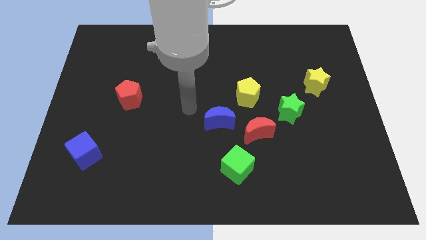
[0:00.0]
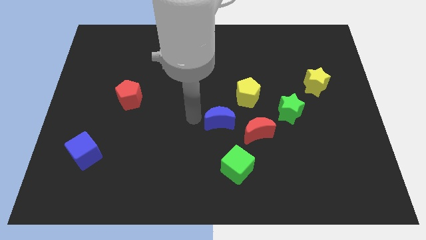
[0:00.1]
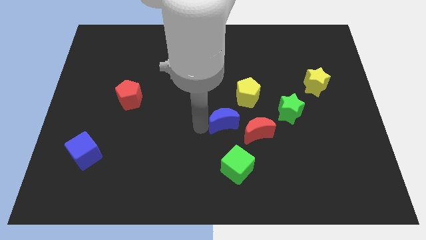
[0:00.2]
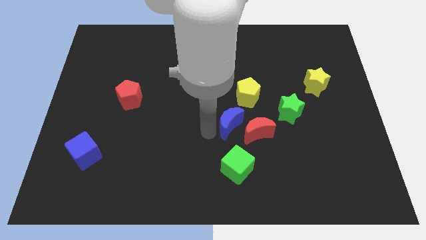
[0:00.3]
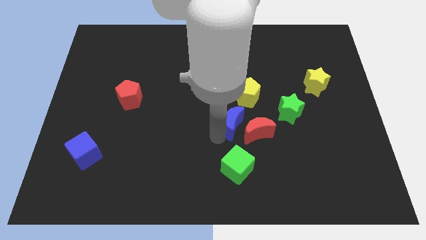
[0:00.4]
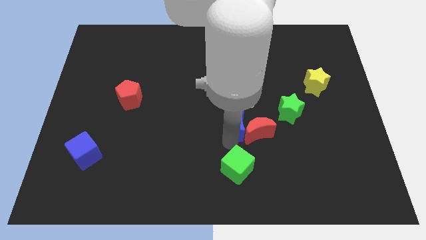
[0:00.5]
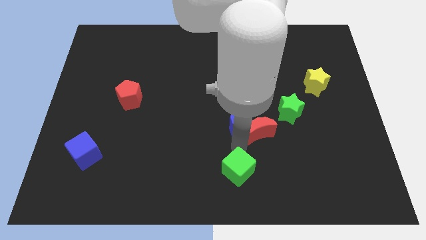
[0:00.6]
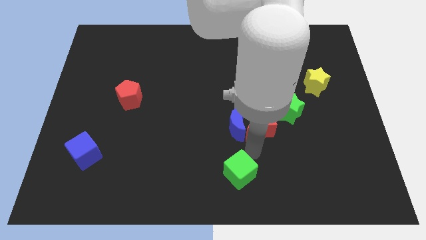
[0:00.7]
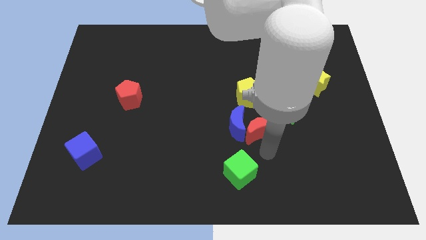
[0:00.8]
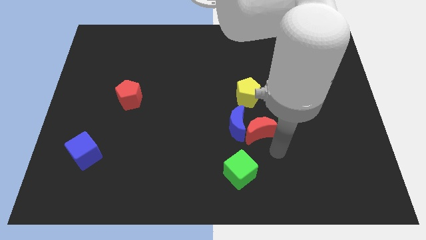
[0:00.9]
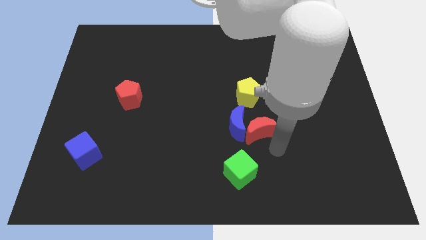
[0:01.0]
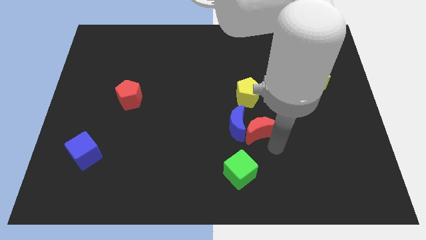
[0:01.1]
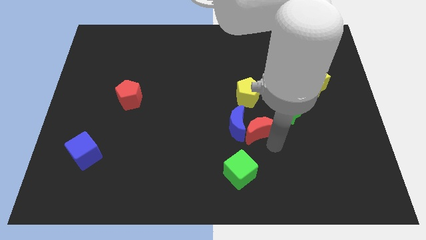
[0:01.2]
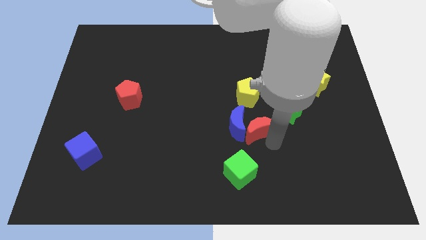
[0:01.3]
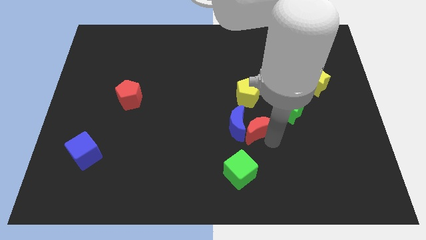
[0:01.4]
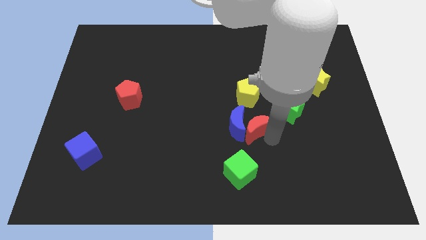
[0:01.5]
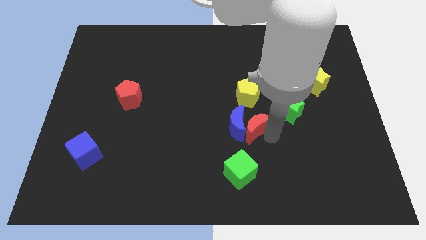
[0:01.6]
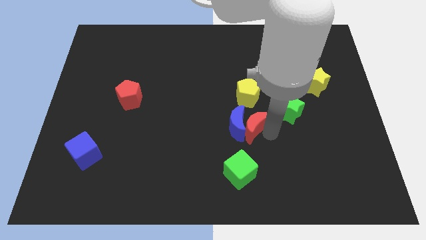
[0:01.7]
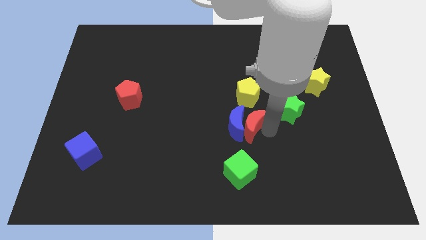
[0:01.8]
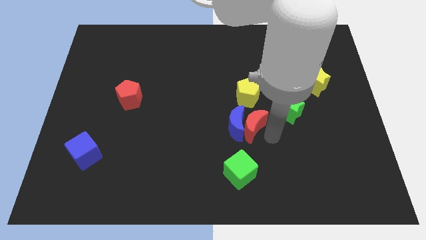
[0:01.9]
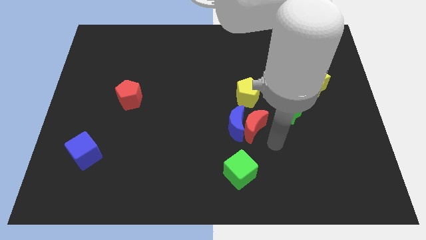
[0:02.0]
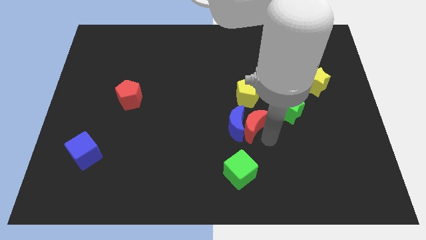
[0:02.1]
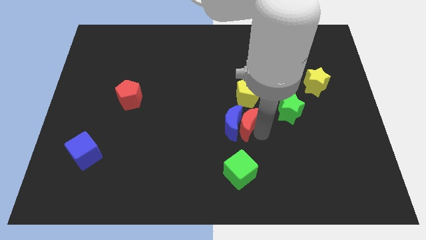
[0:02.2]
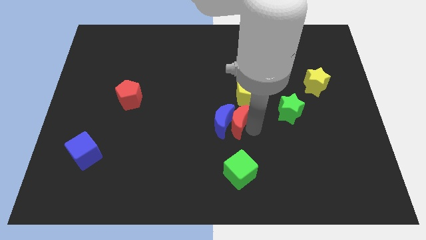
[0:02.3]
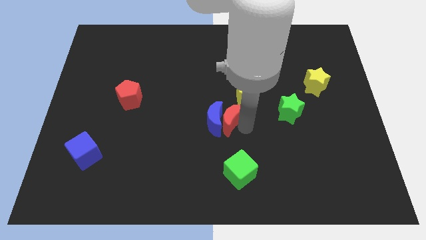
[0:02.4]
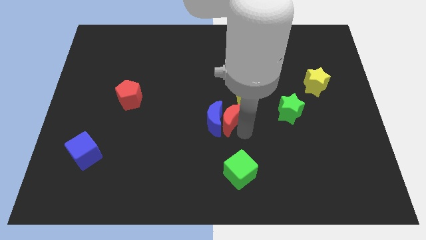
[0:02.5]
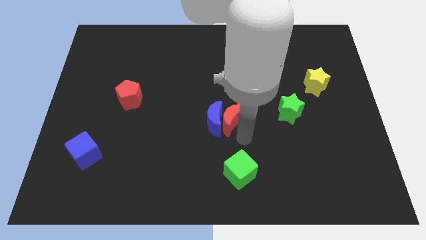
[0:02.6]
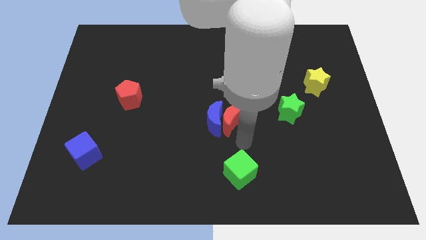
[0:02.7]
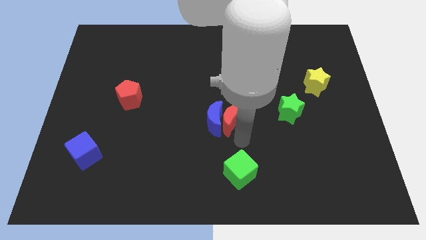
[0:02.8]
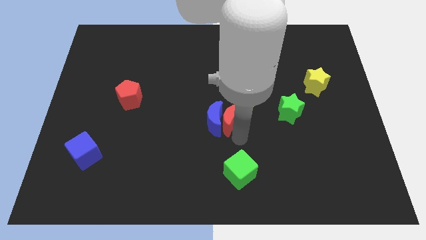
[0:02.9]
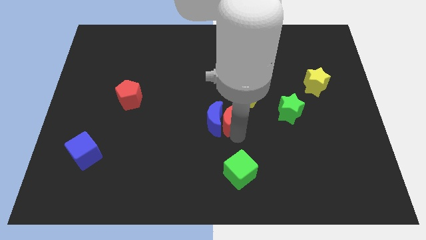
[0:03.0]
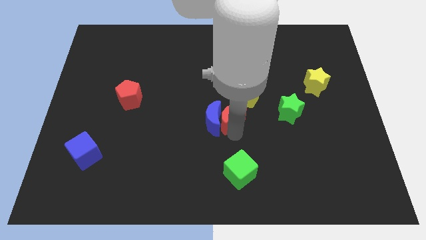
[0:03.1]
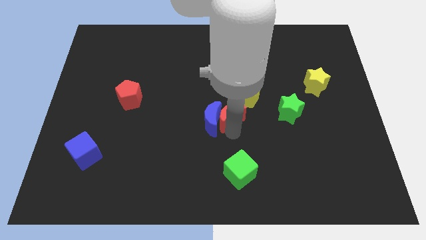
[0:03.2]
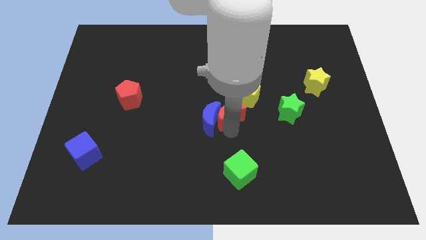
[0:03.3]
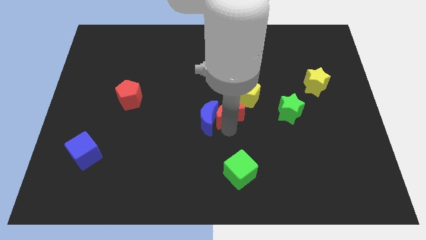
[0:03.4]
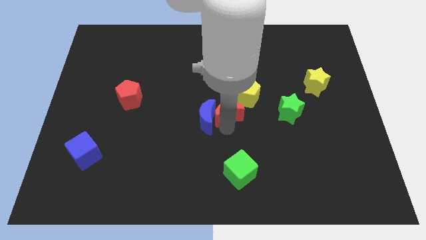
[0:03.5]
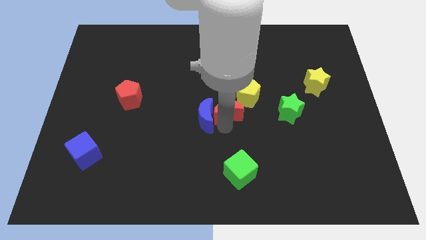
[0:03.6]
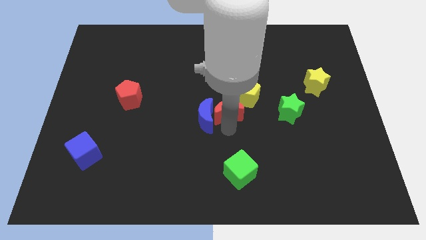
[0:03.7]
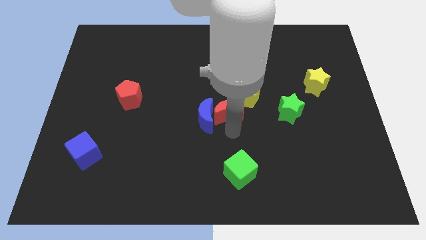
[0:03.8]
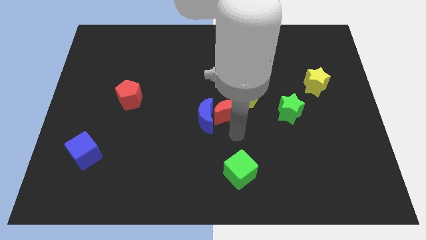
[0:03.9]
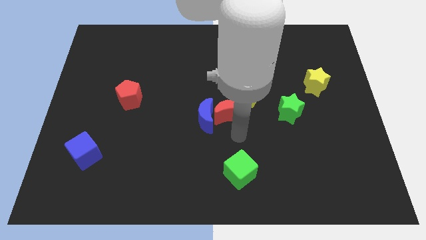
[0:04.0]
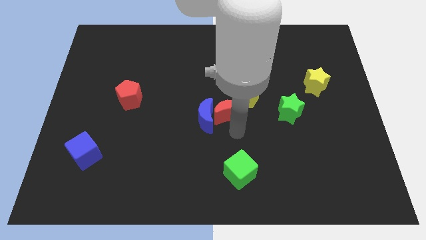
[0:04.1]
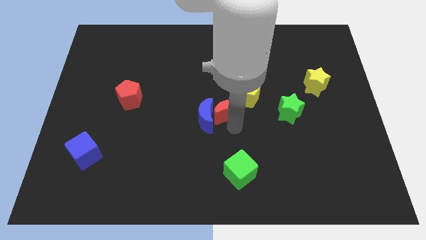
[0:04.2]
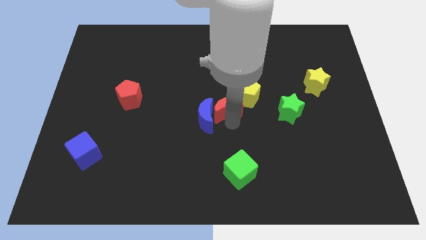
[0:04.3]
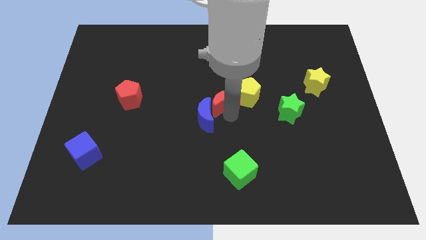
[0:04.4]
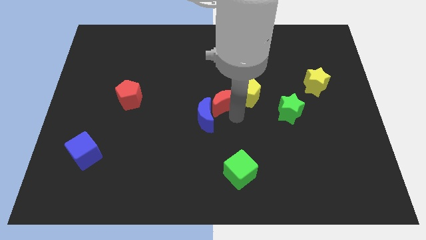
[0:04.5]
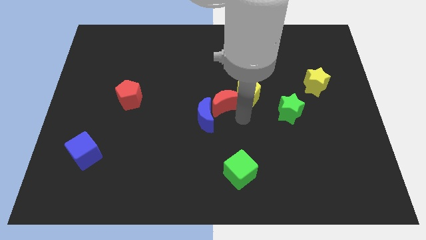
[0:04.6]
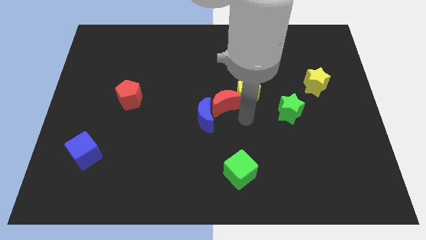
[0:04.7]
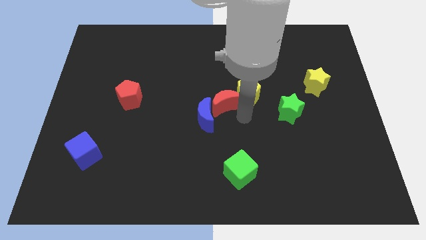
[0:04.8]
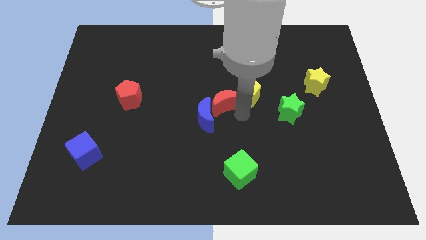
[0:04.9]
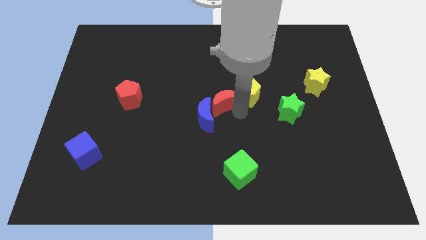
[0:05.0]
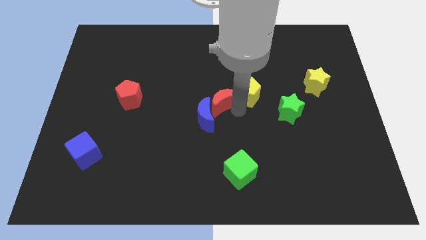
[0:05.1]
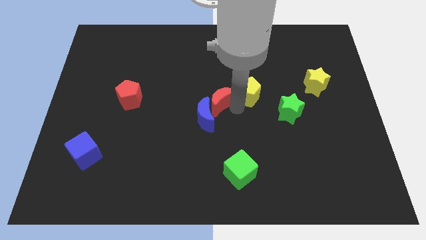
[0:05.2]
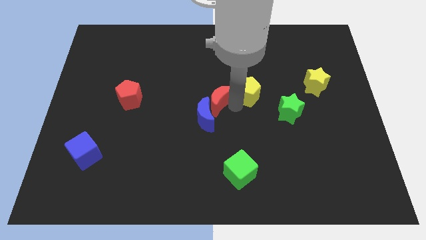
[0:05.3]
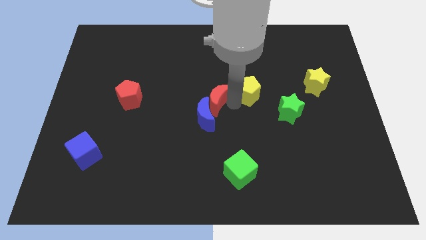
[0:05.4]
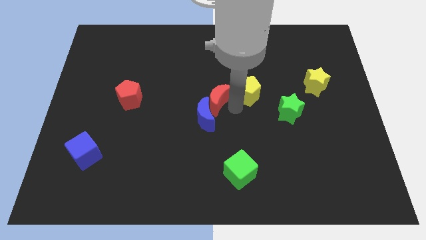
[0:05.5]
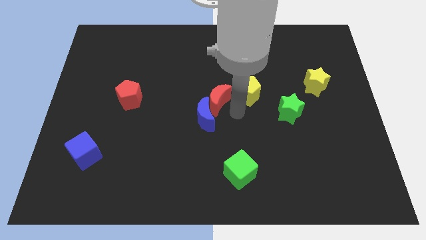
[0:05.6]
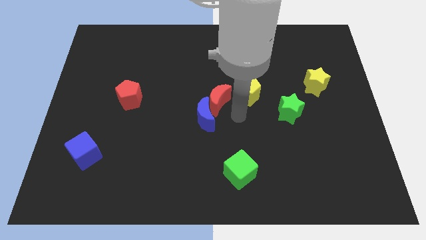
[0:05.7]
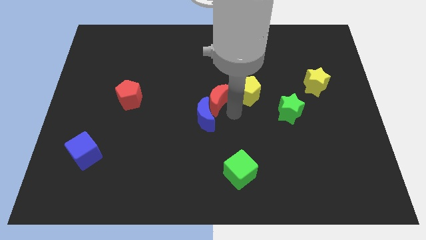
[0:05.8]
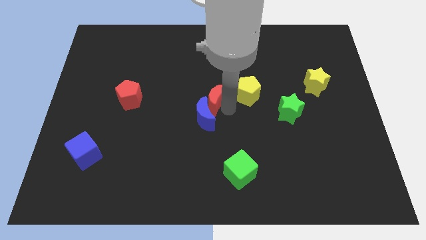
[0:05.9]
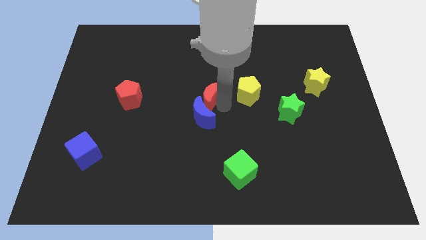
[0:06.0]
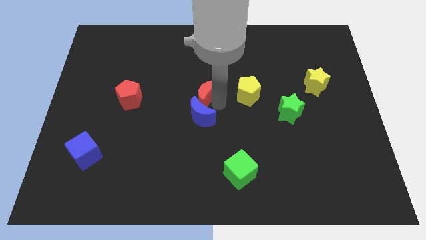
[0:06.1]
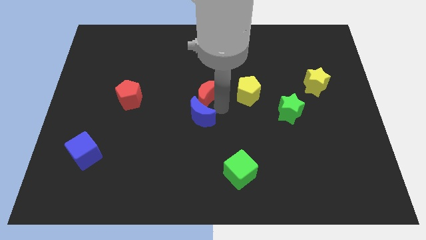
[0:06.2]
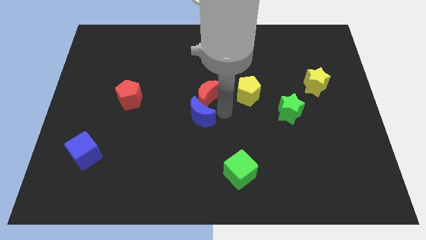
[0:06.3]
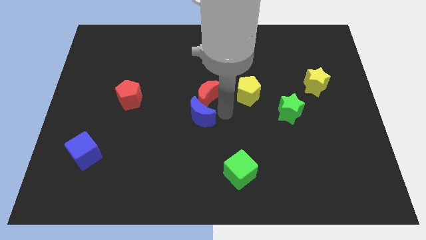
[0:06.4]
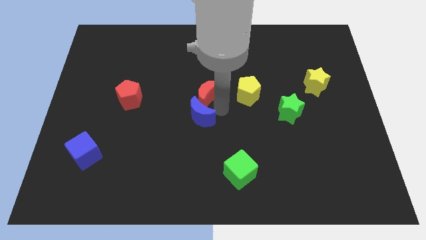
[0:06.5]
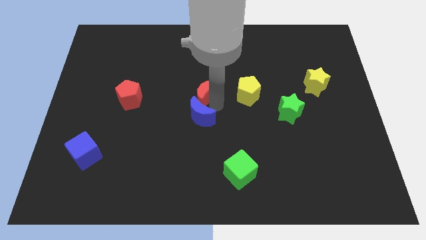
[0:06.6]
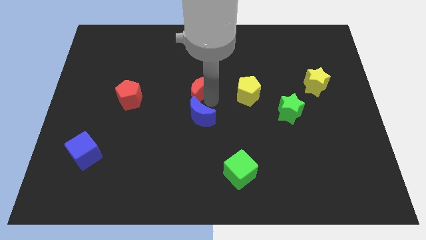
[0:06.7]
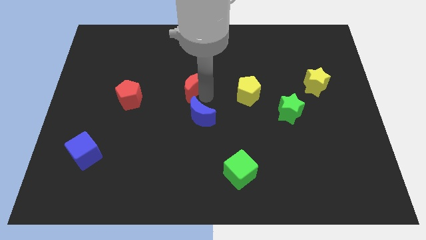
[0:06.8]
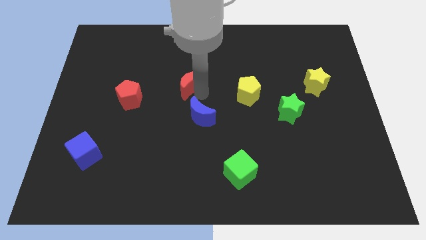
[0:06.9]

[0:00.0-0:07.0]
push the red moon up and then left

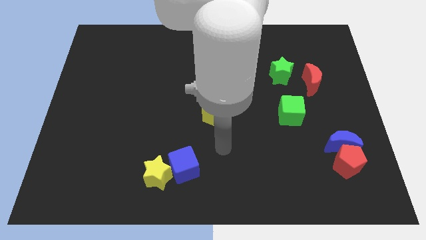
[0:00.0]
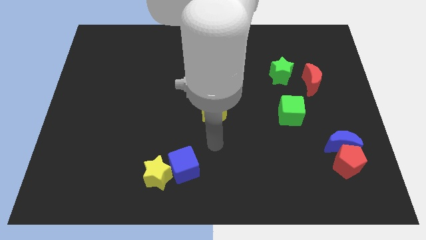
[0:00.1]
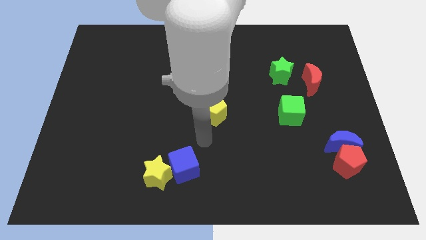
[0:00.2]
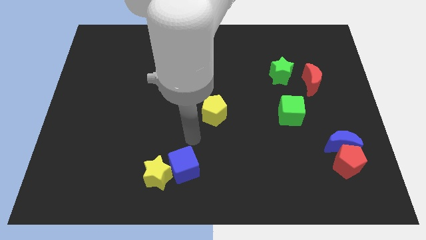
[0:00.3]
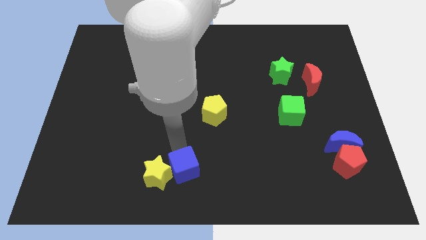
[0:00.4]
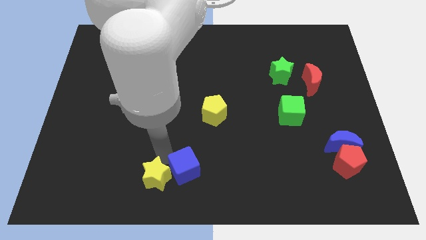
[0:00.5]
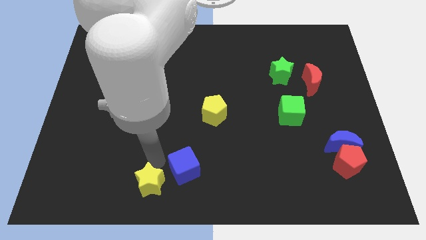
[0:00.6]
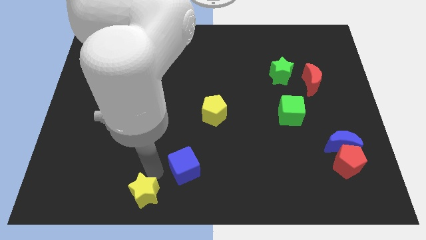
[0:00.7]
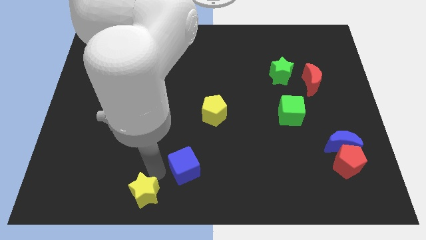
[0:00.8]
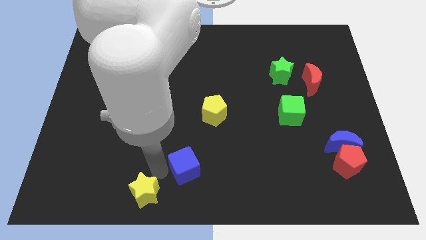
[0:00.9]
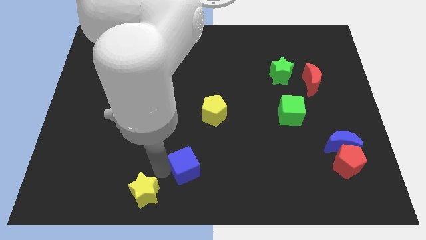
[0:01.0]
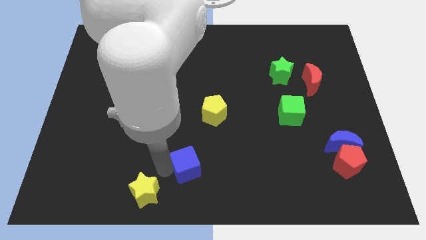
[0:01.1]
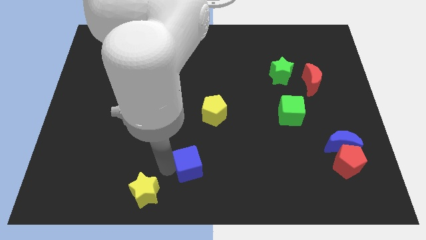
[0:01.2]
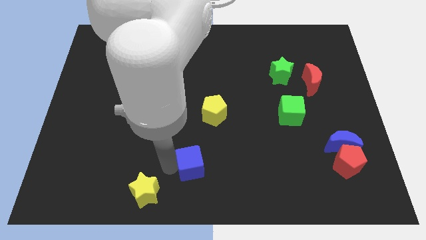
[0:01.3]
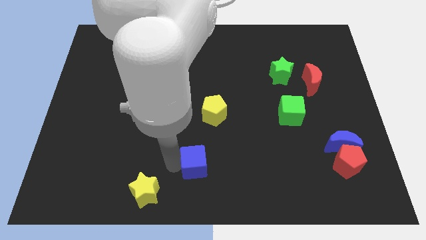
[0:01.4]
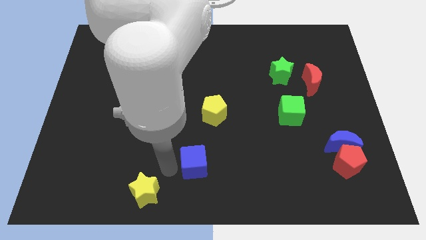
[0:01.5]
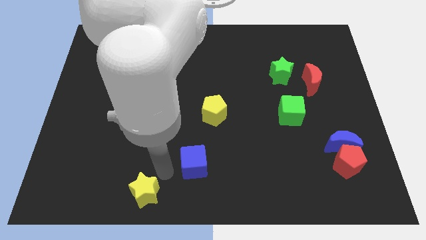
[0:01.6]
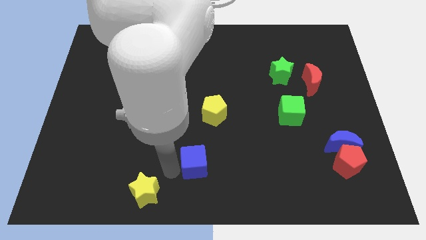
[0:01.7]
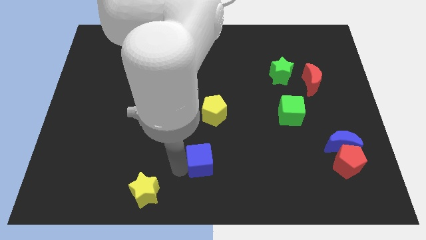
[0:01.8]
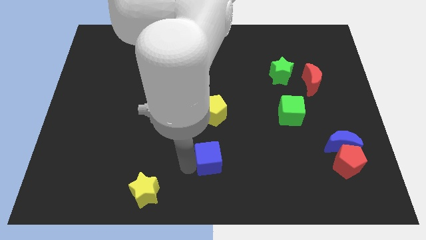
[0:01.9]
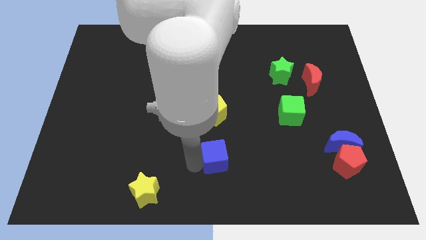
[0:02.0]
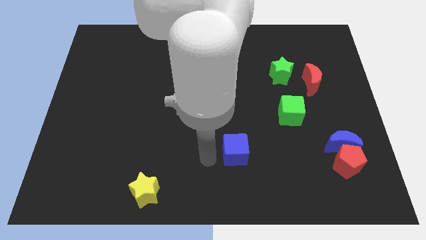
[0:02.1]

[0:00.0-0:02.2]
slightly push the blue cube right
